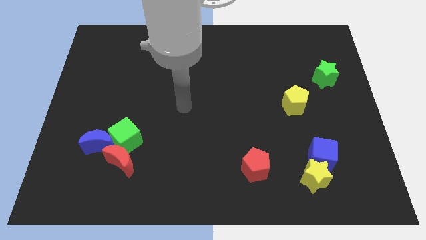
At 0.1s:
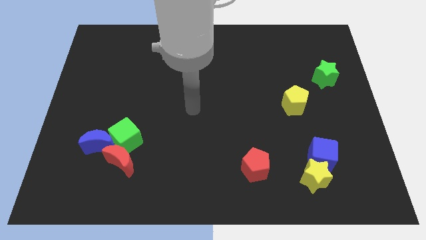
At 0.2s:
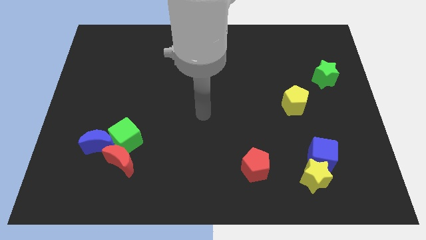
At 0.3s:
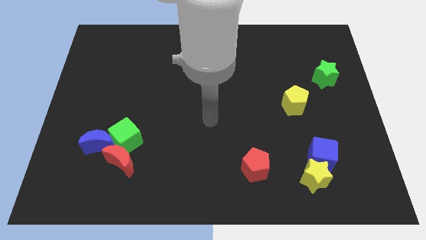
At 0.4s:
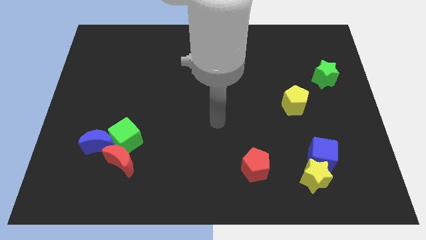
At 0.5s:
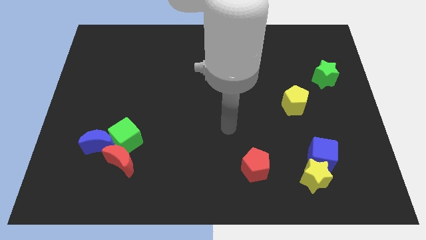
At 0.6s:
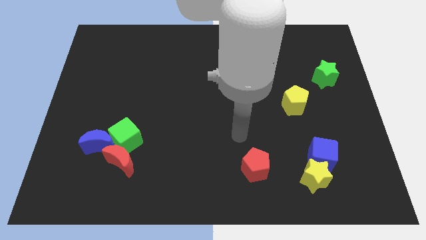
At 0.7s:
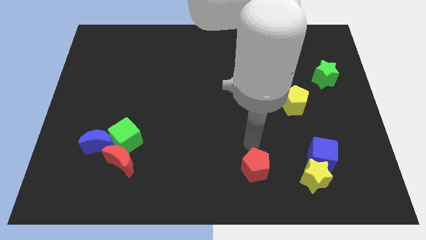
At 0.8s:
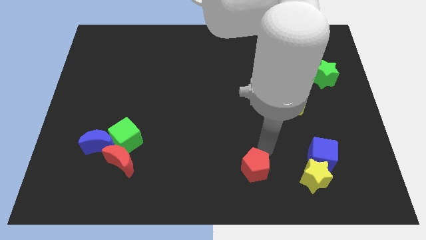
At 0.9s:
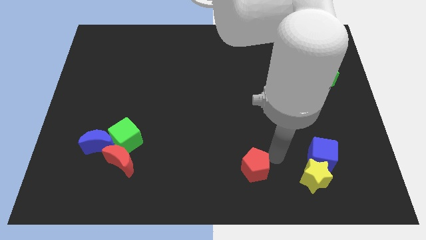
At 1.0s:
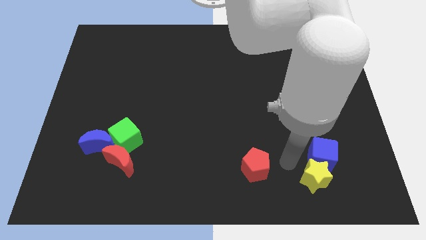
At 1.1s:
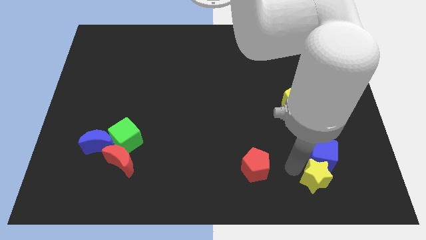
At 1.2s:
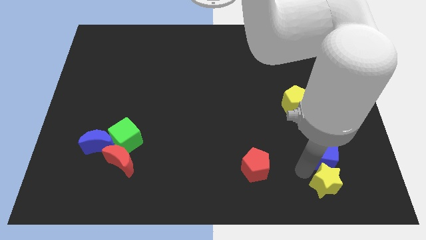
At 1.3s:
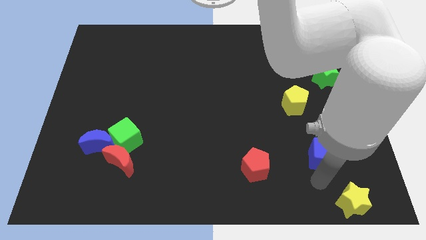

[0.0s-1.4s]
pull the blue cube apart from the yellow star

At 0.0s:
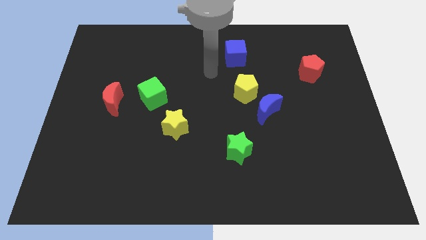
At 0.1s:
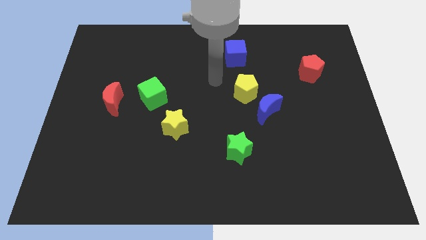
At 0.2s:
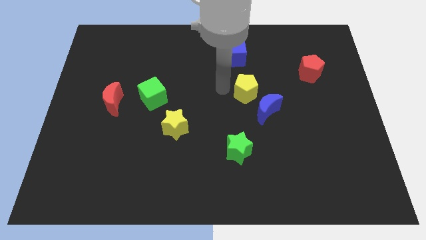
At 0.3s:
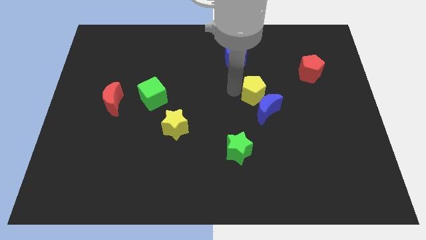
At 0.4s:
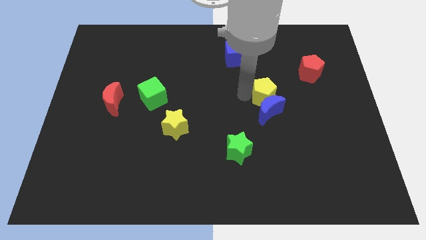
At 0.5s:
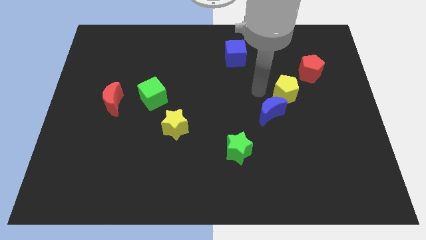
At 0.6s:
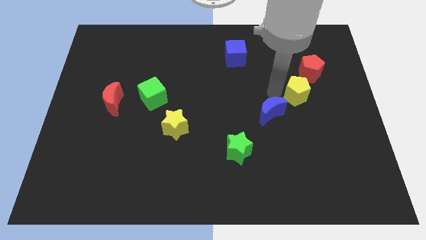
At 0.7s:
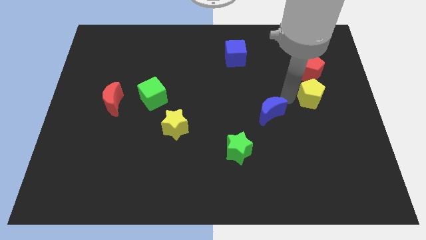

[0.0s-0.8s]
move the blue moon away from the yellow pentagon

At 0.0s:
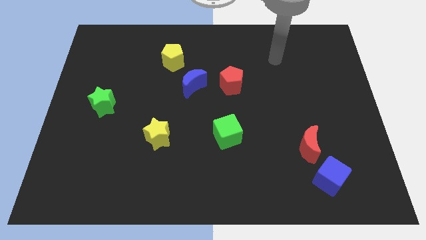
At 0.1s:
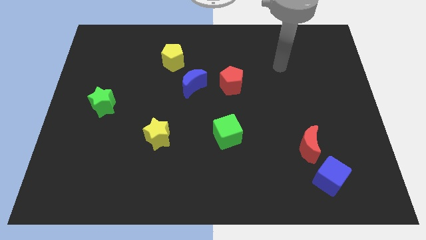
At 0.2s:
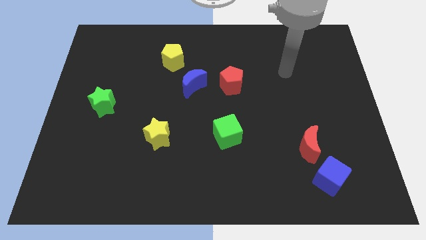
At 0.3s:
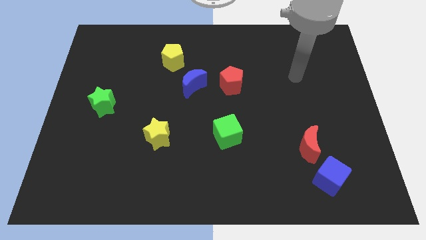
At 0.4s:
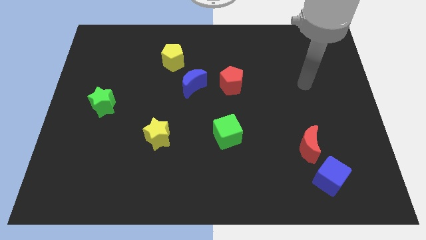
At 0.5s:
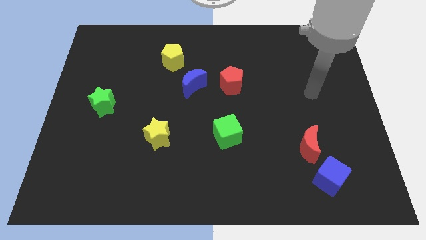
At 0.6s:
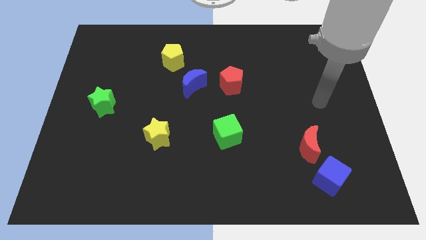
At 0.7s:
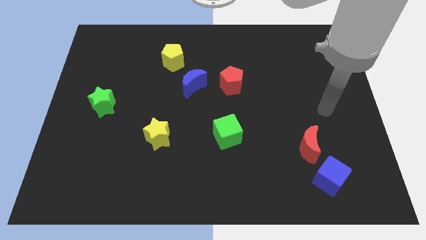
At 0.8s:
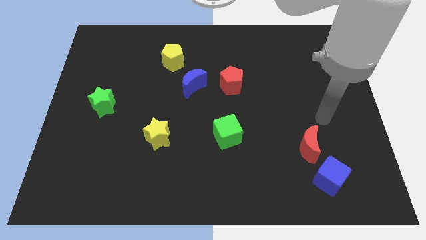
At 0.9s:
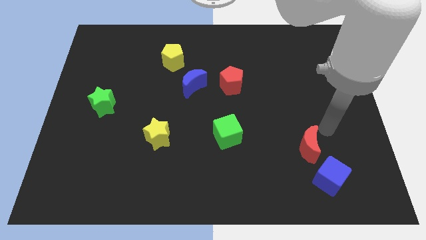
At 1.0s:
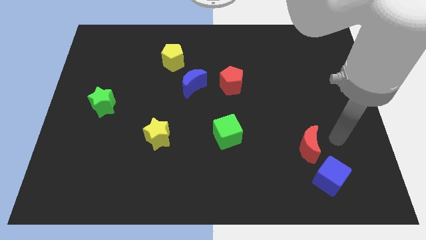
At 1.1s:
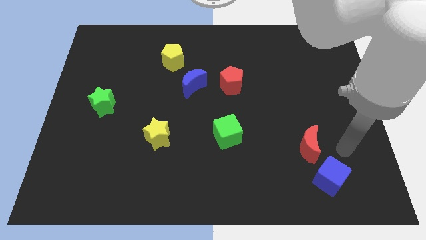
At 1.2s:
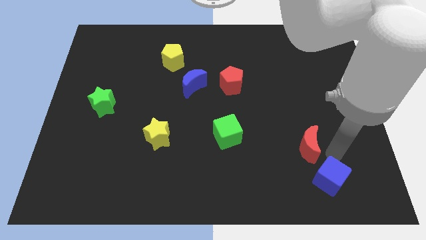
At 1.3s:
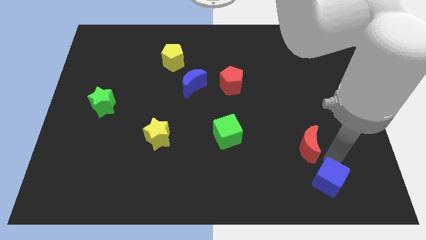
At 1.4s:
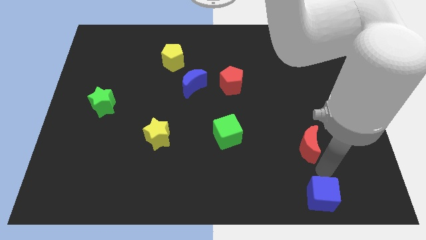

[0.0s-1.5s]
pull the red moon apart from the blue cube

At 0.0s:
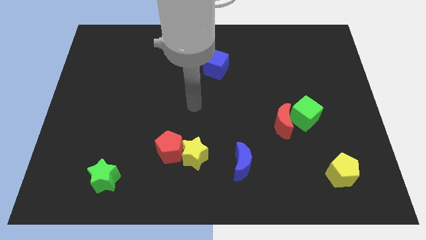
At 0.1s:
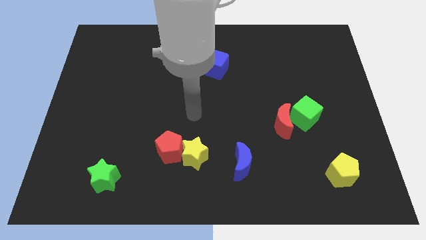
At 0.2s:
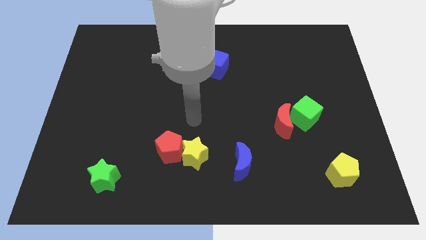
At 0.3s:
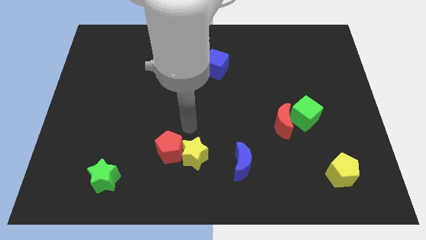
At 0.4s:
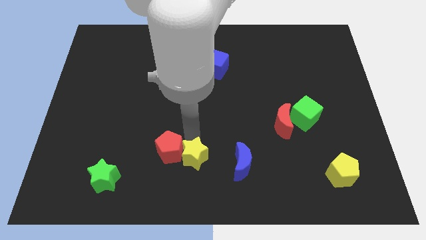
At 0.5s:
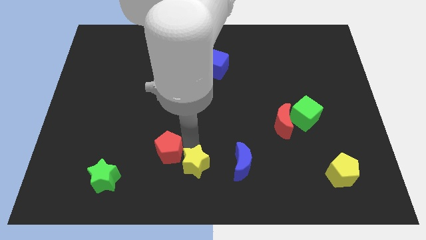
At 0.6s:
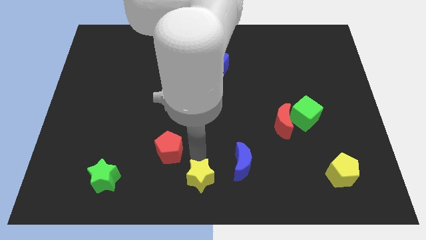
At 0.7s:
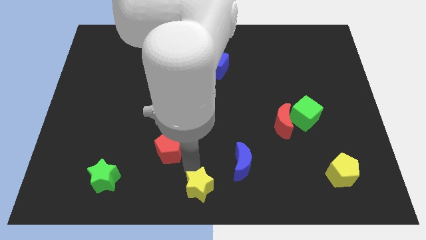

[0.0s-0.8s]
move the red pentagon away from the yellow star

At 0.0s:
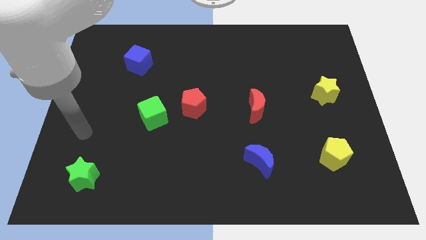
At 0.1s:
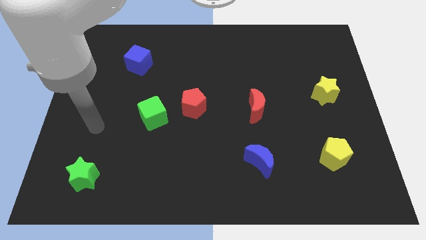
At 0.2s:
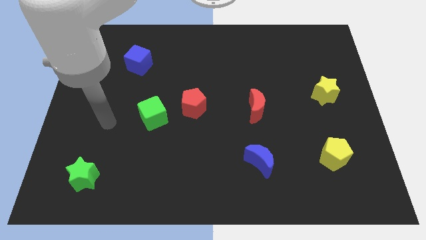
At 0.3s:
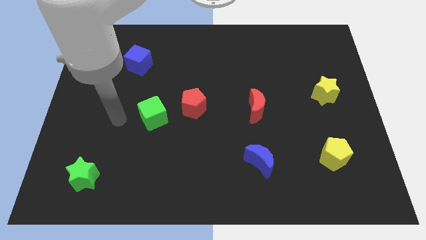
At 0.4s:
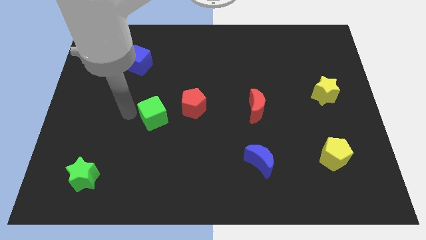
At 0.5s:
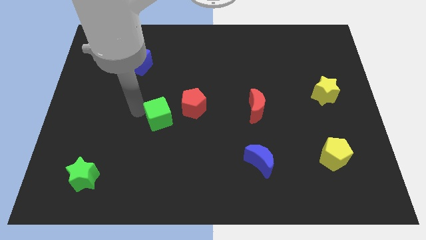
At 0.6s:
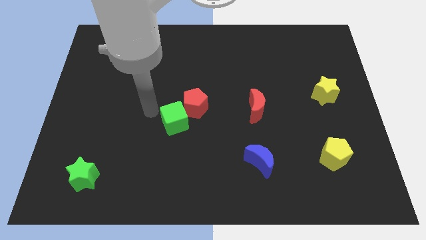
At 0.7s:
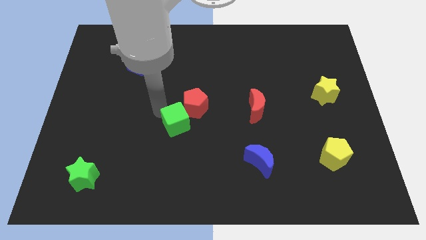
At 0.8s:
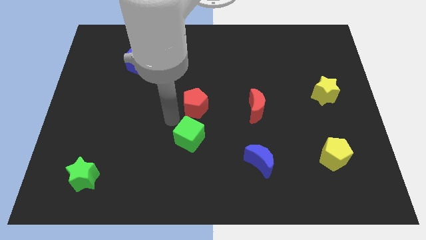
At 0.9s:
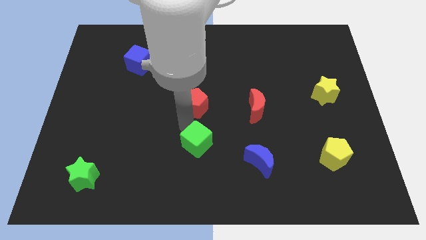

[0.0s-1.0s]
pull the red pentagon apart from the green cube

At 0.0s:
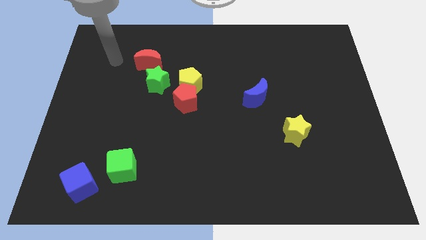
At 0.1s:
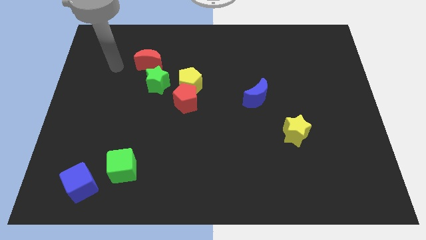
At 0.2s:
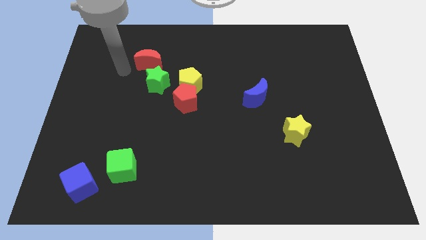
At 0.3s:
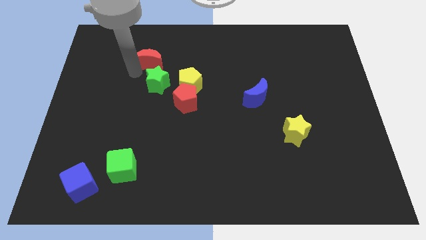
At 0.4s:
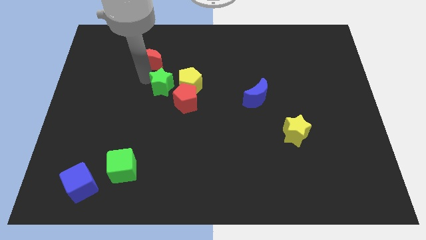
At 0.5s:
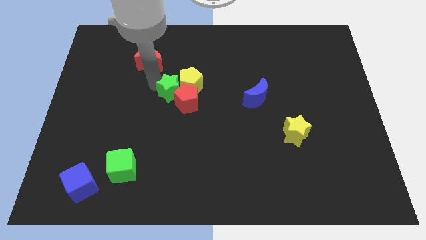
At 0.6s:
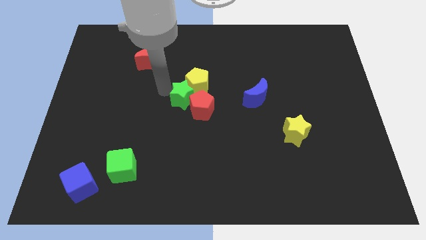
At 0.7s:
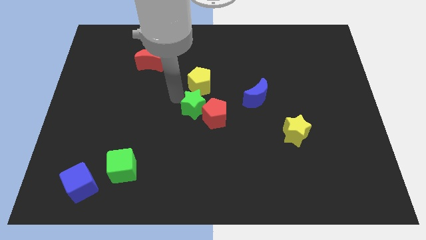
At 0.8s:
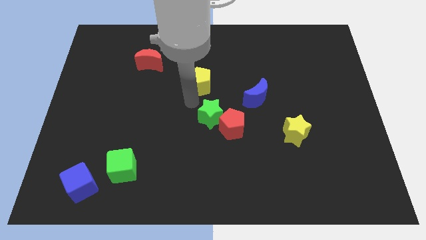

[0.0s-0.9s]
pull the yellow pentagon apart from the red pentagon and green star

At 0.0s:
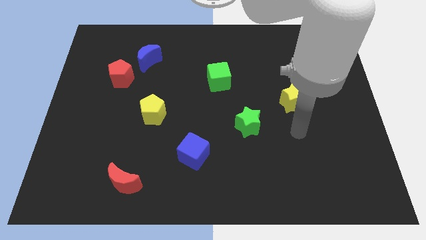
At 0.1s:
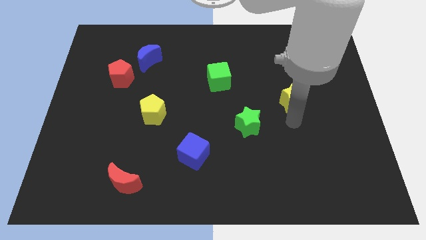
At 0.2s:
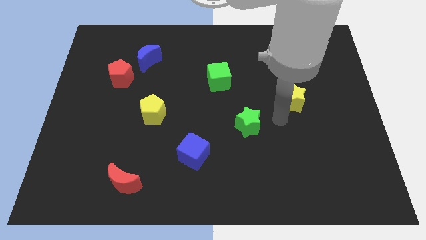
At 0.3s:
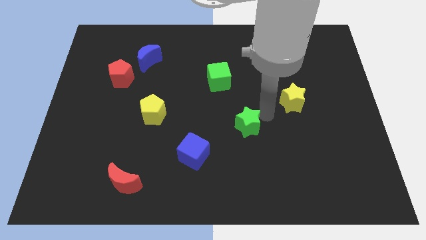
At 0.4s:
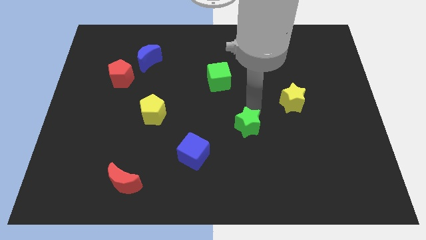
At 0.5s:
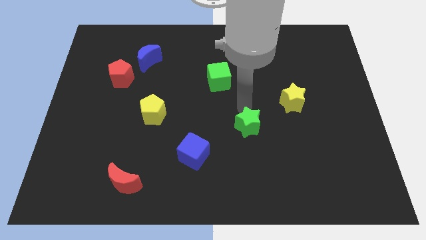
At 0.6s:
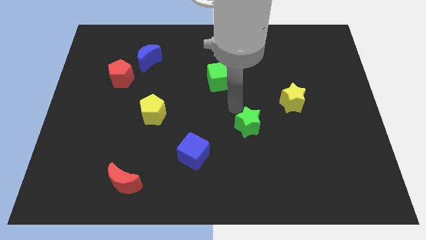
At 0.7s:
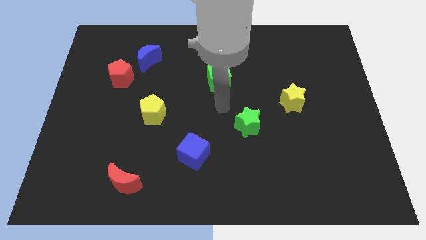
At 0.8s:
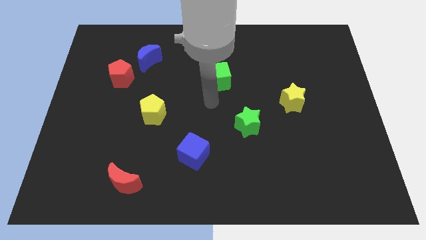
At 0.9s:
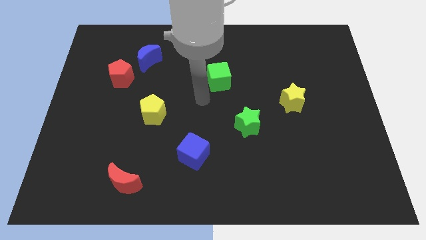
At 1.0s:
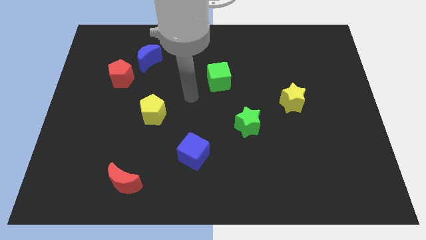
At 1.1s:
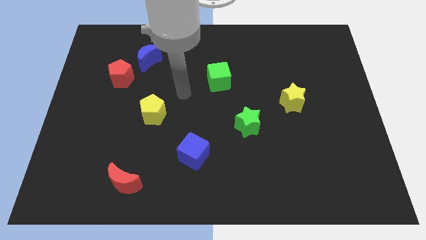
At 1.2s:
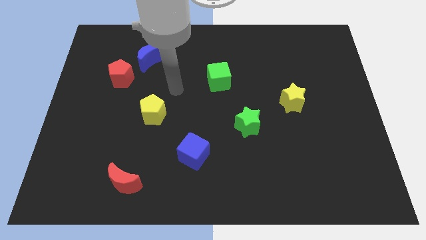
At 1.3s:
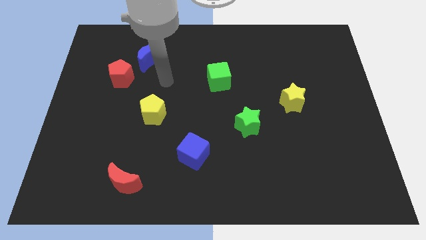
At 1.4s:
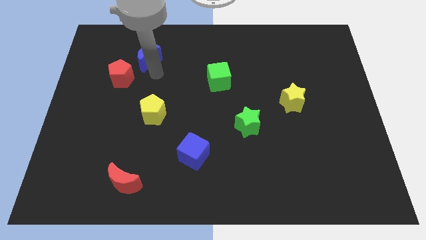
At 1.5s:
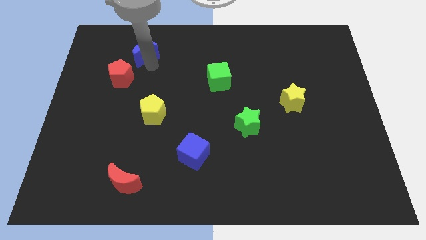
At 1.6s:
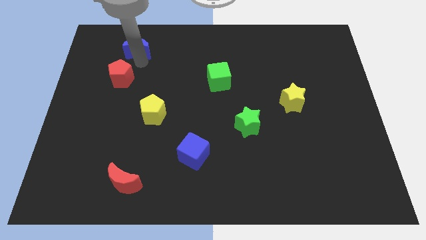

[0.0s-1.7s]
pull the red pentagon apart from the blue moon

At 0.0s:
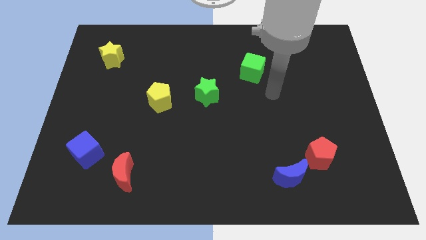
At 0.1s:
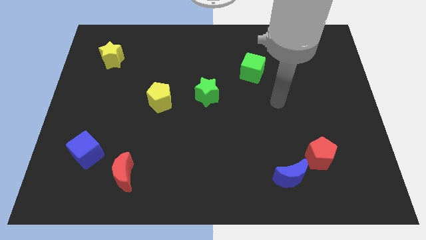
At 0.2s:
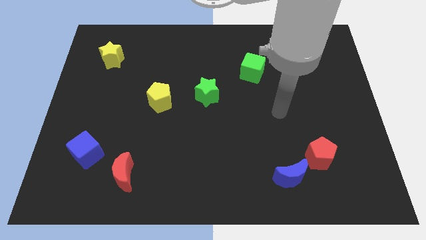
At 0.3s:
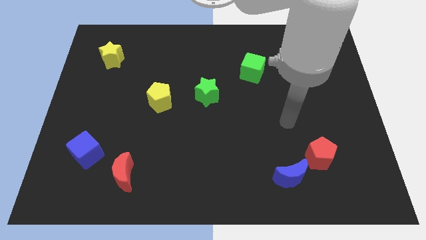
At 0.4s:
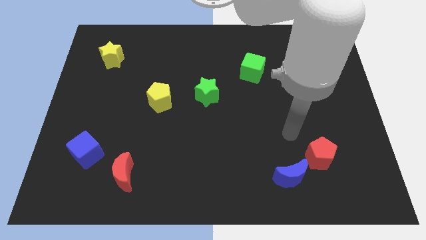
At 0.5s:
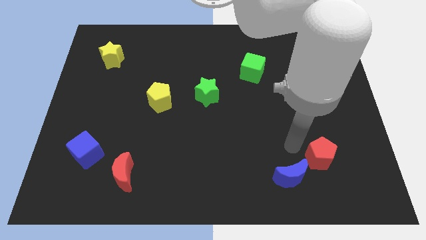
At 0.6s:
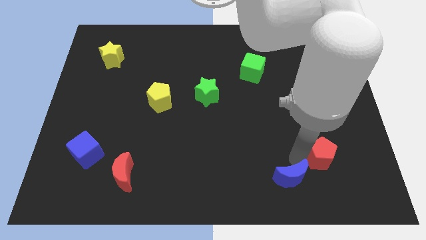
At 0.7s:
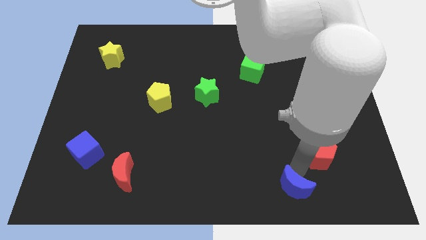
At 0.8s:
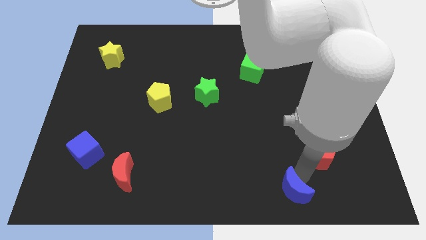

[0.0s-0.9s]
move the red pentagon away from the blue moon

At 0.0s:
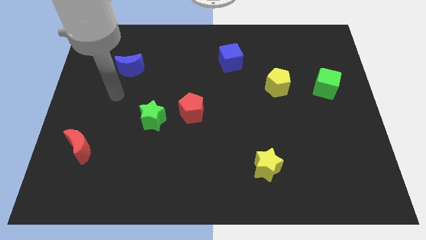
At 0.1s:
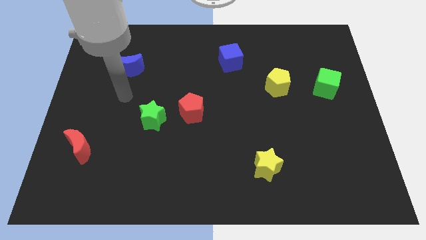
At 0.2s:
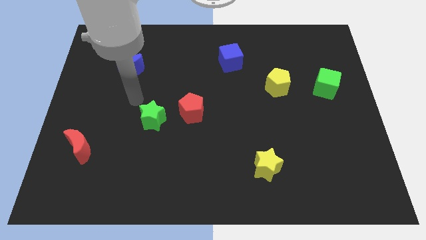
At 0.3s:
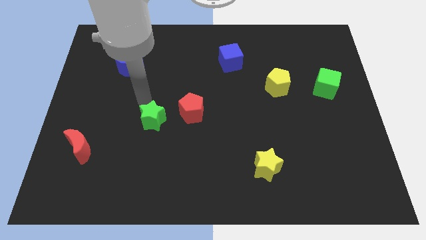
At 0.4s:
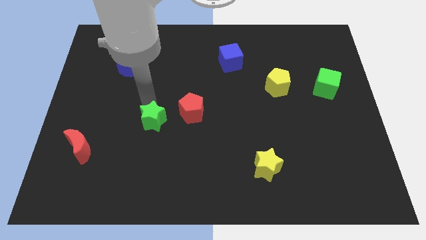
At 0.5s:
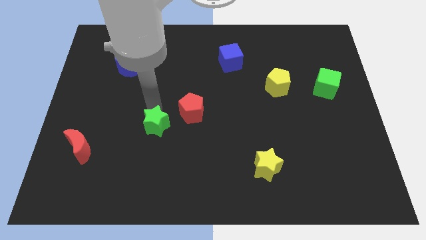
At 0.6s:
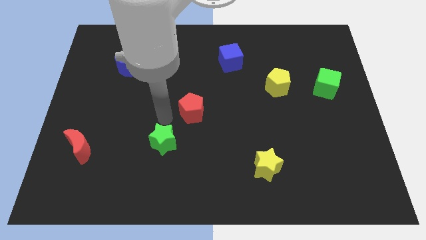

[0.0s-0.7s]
separate the red pentagon from the green star
